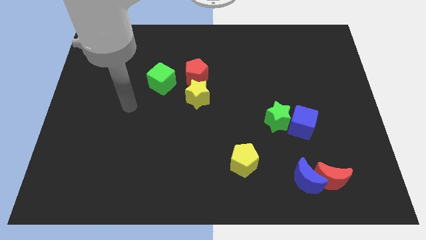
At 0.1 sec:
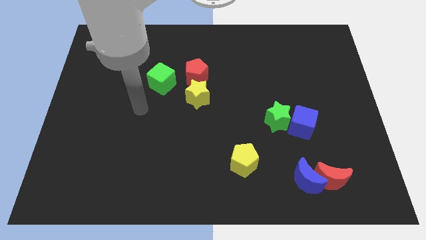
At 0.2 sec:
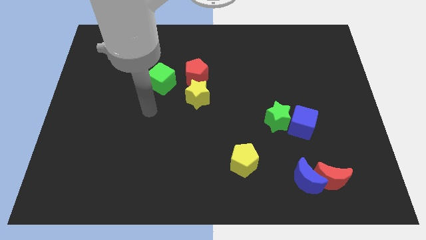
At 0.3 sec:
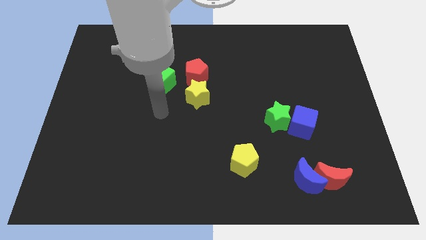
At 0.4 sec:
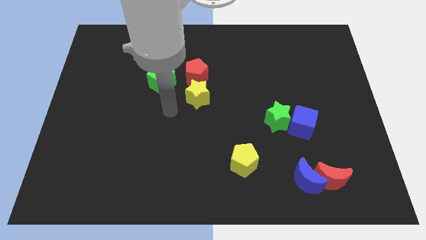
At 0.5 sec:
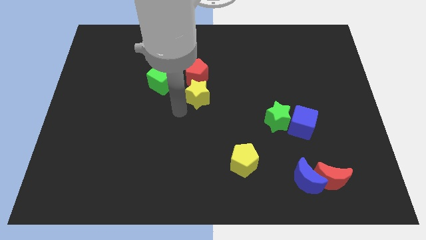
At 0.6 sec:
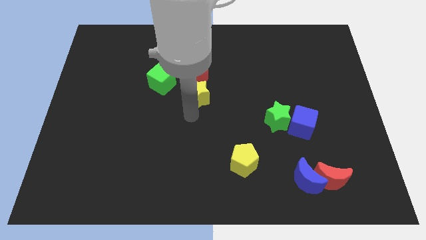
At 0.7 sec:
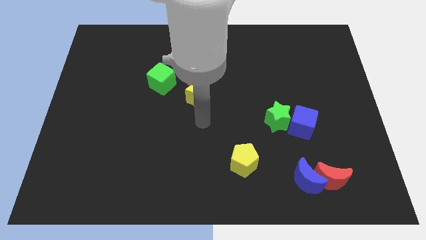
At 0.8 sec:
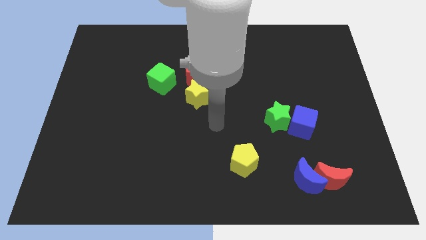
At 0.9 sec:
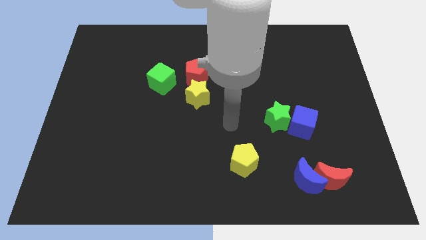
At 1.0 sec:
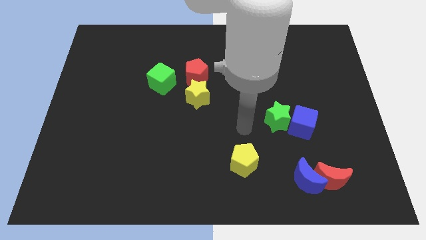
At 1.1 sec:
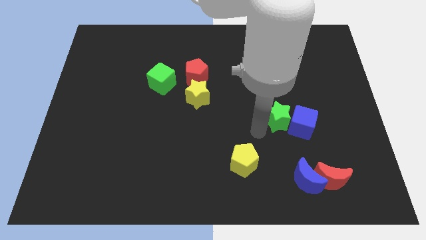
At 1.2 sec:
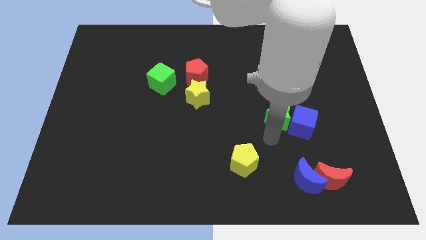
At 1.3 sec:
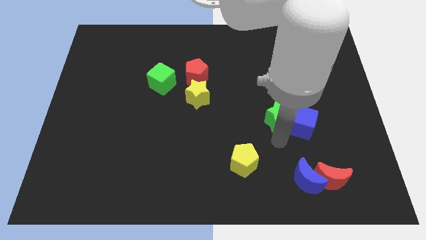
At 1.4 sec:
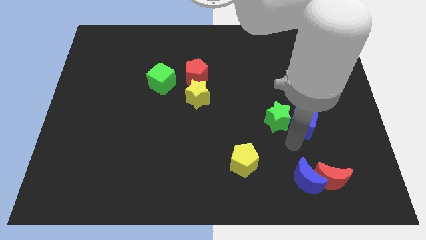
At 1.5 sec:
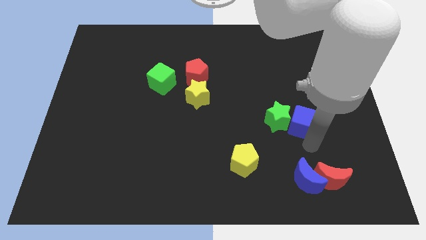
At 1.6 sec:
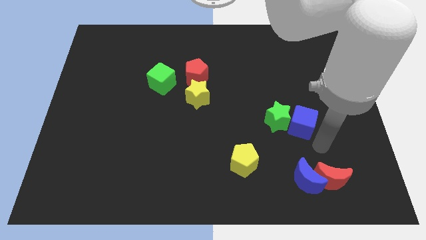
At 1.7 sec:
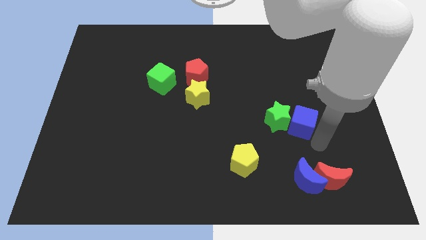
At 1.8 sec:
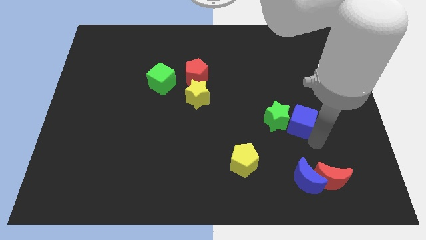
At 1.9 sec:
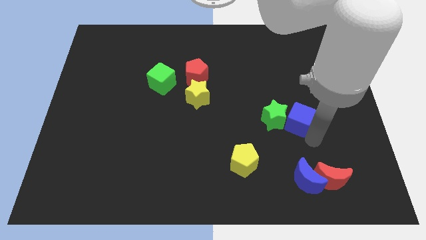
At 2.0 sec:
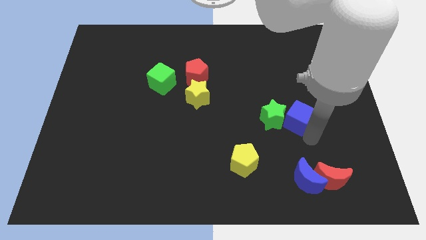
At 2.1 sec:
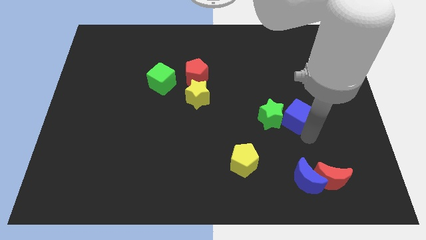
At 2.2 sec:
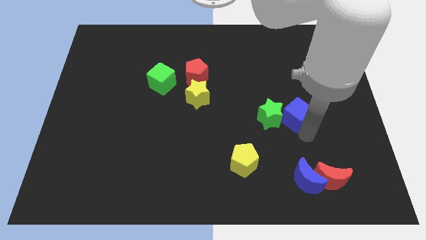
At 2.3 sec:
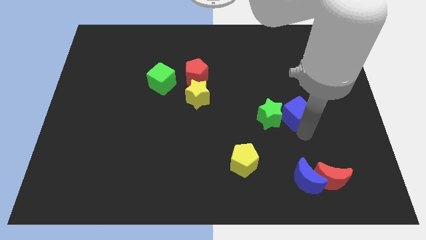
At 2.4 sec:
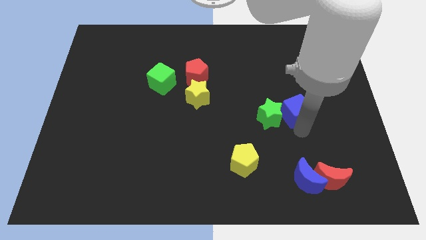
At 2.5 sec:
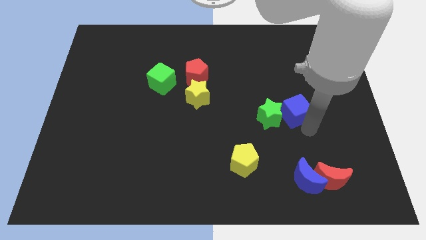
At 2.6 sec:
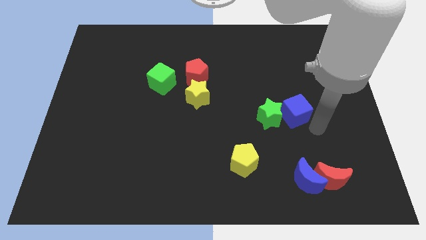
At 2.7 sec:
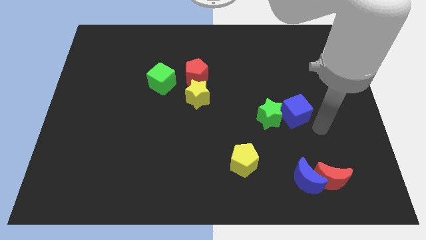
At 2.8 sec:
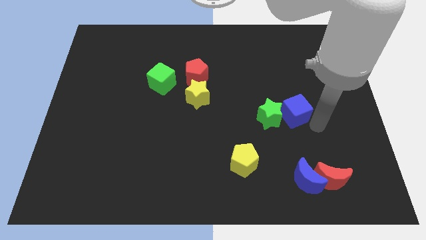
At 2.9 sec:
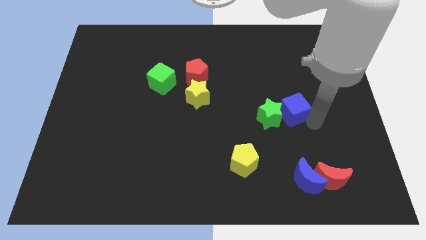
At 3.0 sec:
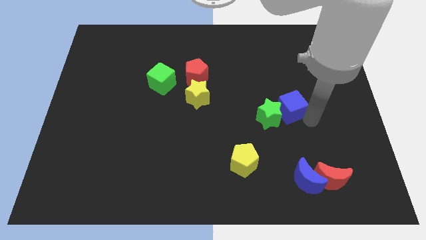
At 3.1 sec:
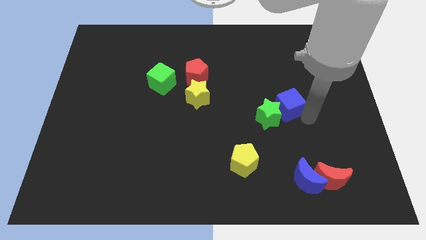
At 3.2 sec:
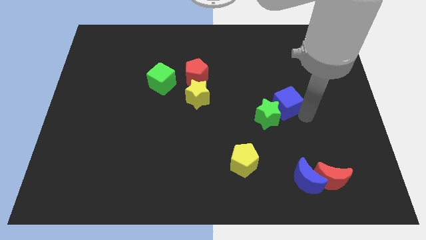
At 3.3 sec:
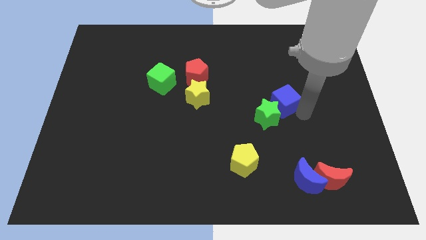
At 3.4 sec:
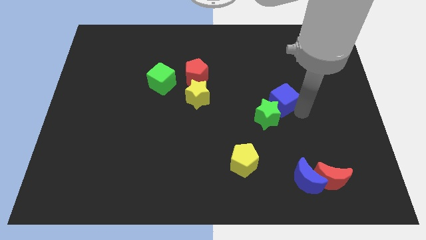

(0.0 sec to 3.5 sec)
slightly slide the blue cube upwards and left diagonally

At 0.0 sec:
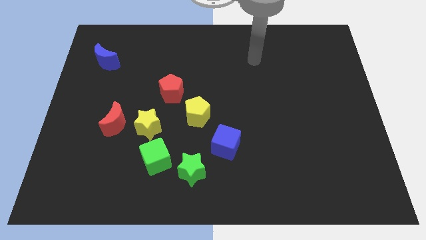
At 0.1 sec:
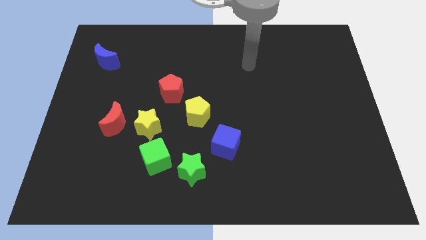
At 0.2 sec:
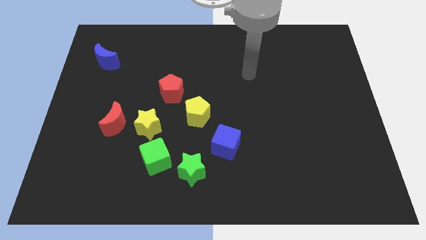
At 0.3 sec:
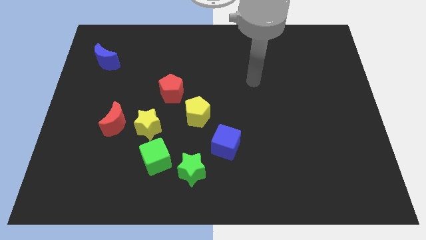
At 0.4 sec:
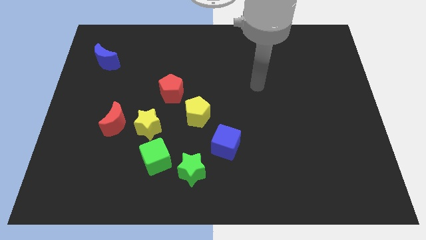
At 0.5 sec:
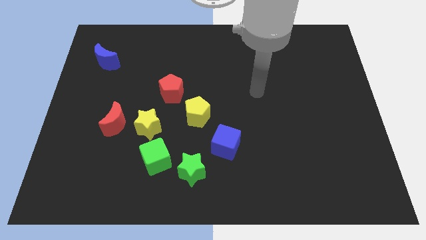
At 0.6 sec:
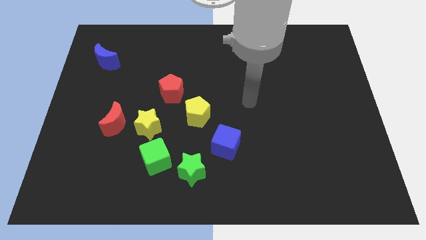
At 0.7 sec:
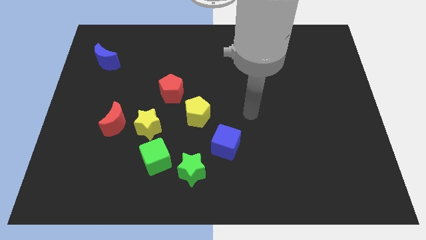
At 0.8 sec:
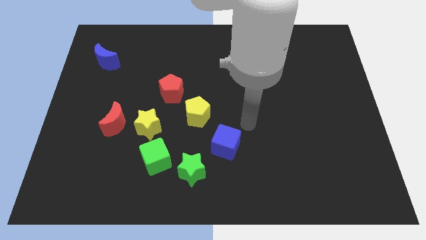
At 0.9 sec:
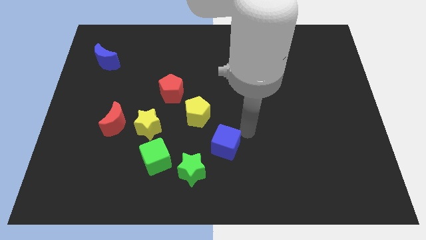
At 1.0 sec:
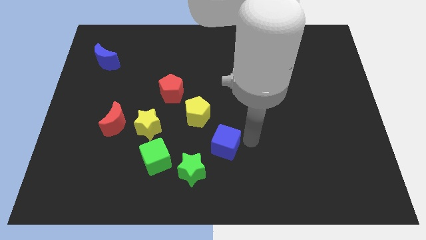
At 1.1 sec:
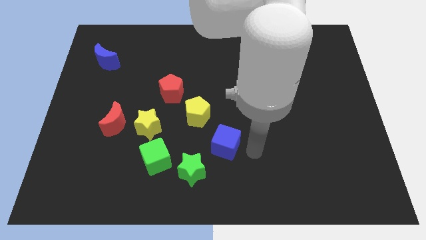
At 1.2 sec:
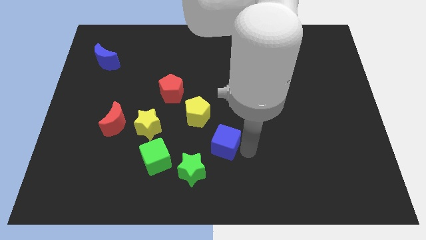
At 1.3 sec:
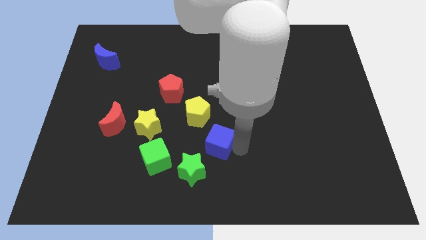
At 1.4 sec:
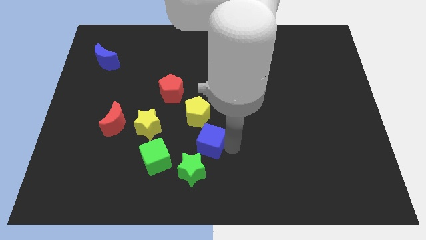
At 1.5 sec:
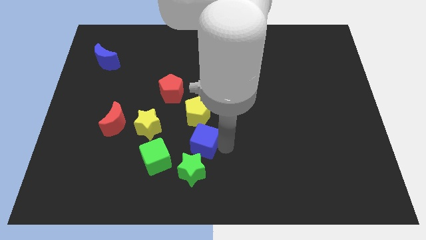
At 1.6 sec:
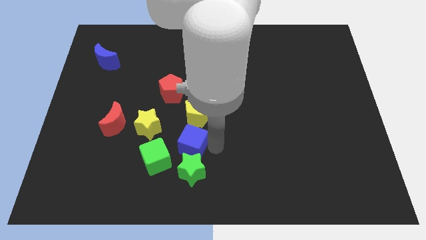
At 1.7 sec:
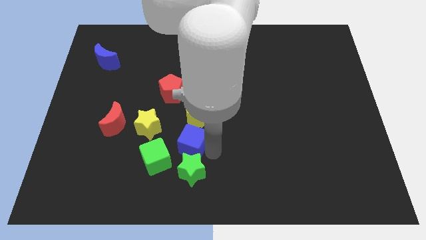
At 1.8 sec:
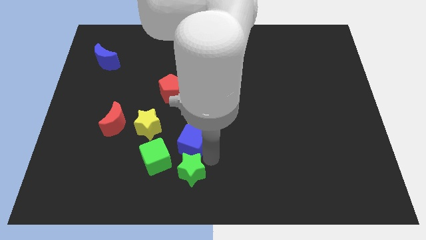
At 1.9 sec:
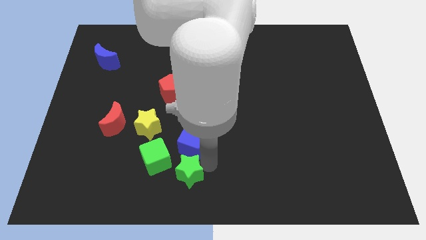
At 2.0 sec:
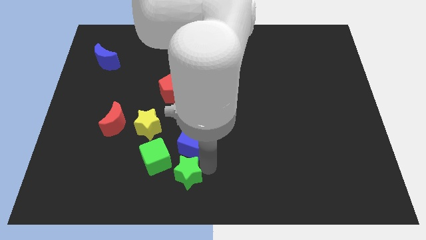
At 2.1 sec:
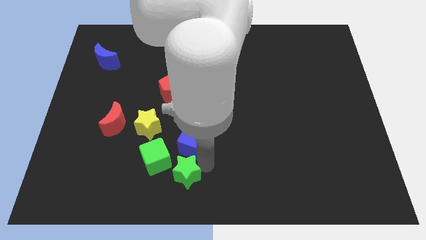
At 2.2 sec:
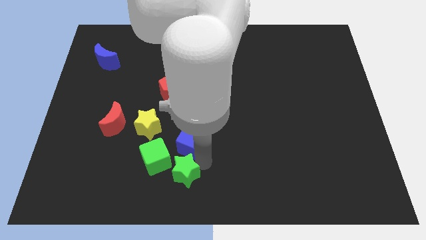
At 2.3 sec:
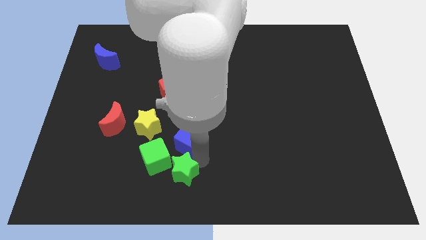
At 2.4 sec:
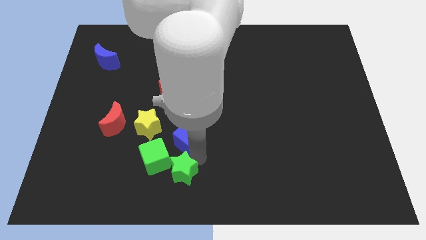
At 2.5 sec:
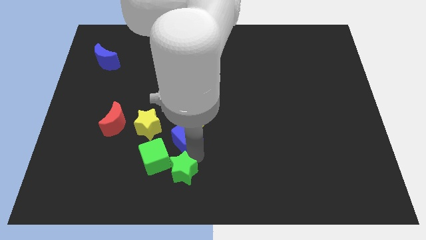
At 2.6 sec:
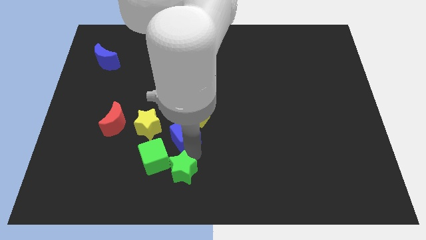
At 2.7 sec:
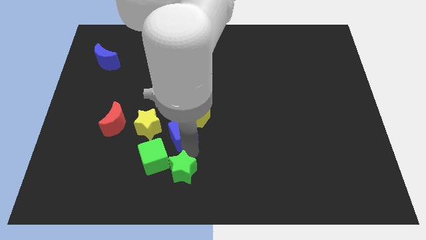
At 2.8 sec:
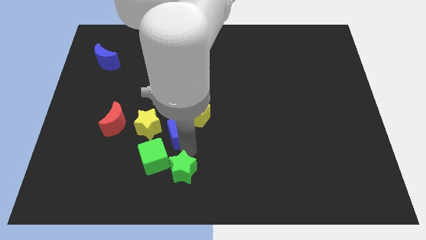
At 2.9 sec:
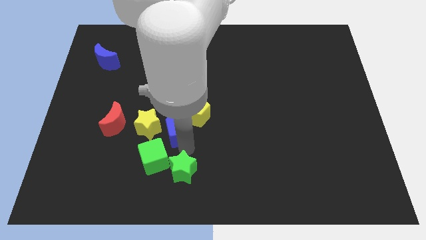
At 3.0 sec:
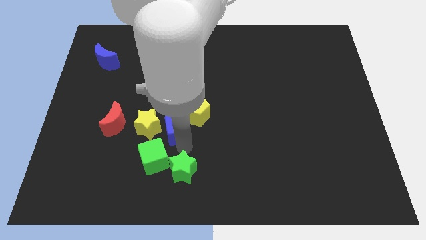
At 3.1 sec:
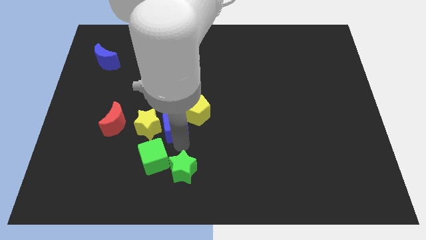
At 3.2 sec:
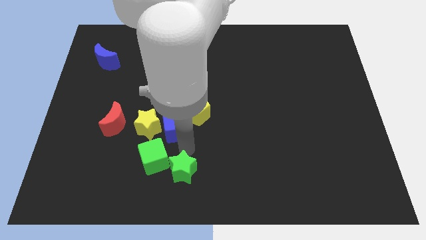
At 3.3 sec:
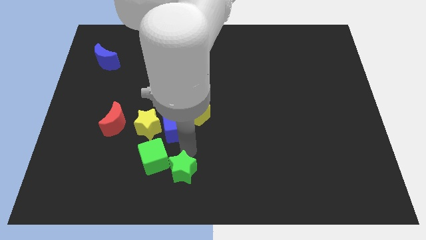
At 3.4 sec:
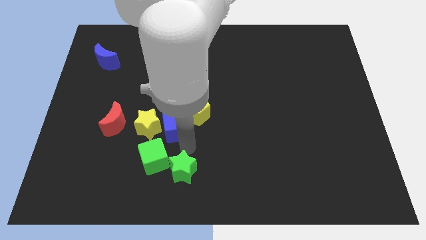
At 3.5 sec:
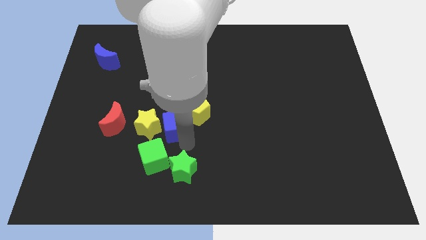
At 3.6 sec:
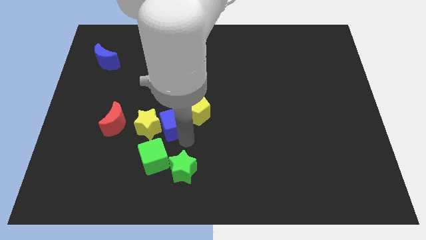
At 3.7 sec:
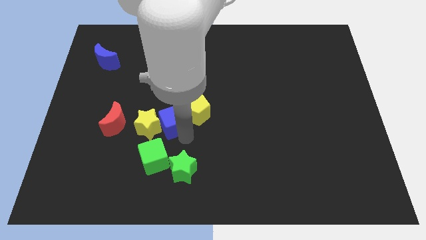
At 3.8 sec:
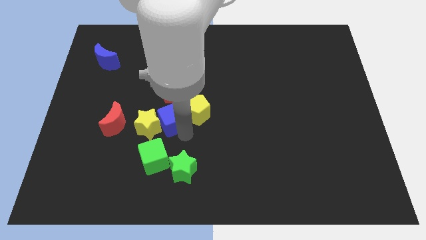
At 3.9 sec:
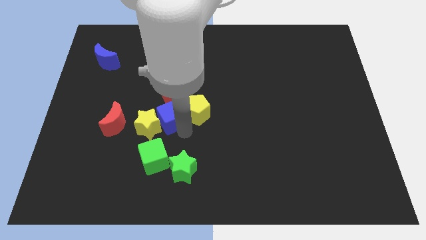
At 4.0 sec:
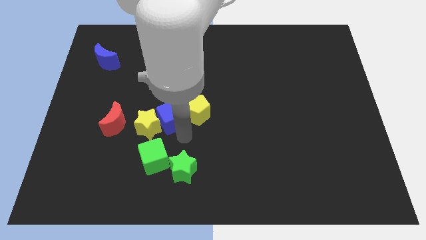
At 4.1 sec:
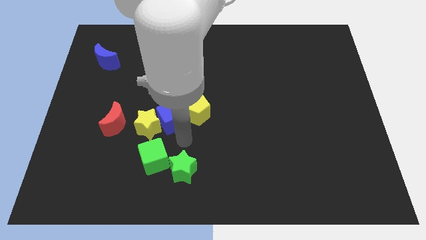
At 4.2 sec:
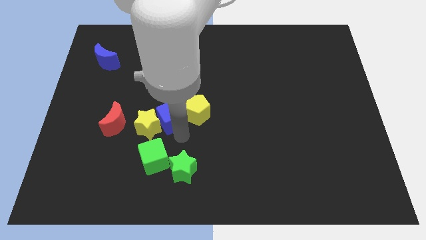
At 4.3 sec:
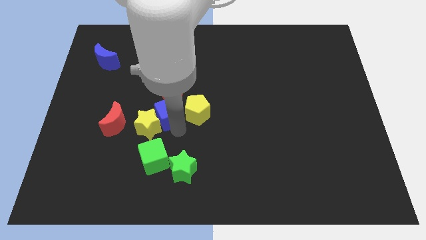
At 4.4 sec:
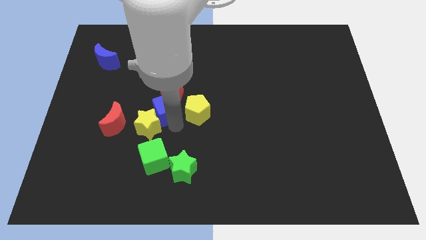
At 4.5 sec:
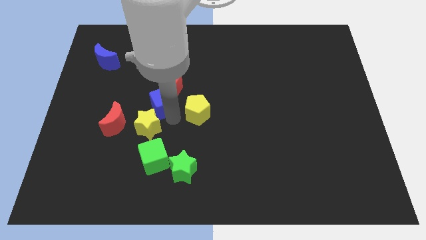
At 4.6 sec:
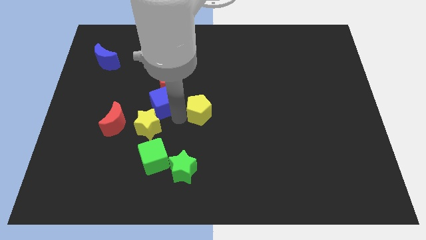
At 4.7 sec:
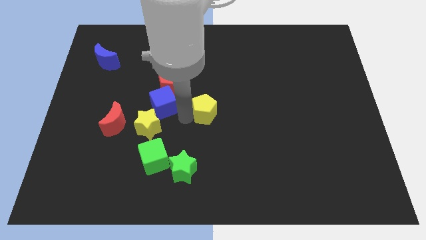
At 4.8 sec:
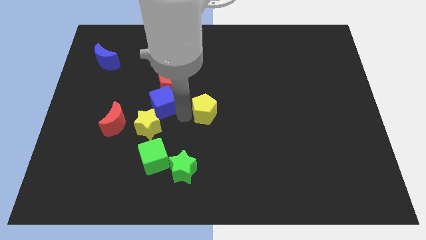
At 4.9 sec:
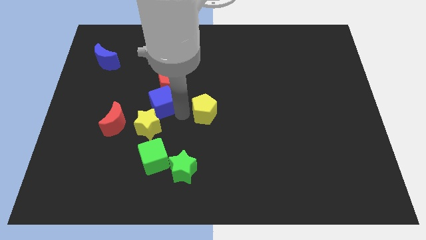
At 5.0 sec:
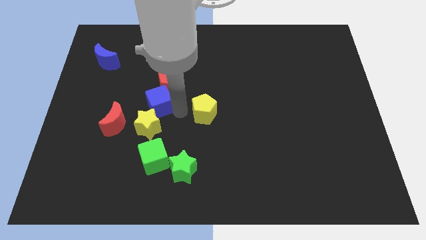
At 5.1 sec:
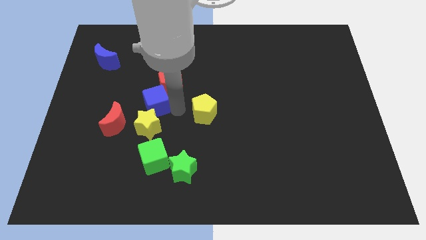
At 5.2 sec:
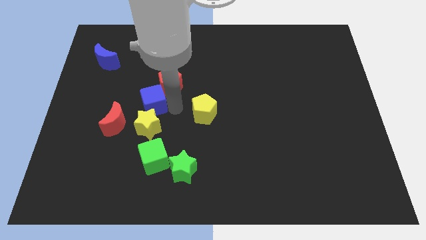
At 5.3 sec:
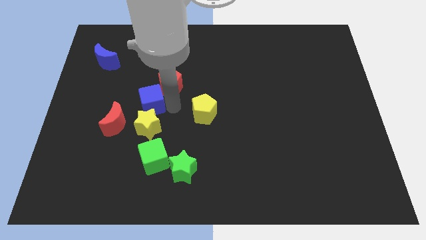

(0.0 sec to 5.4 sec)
slide the blue cube diagonally upwards and left
